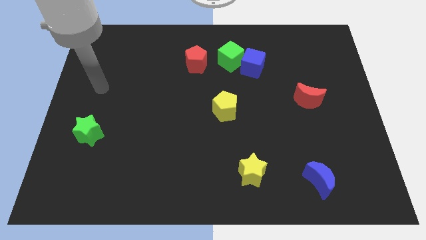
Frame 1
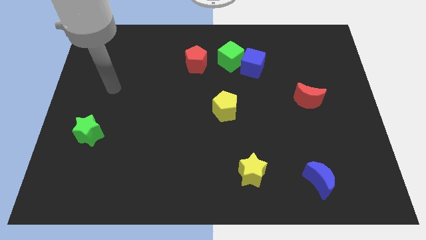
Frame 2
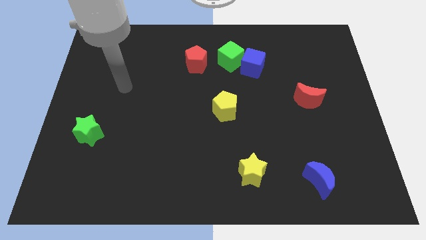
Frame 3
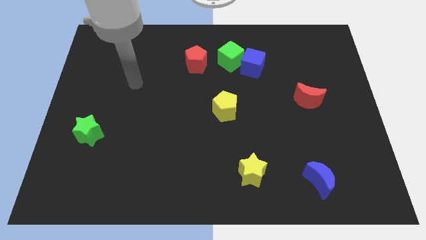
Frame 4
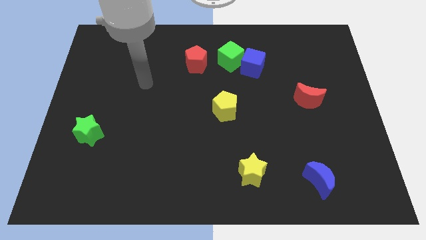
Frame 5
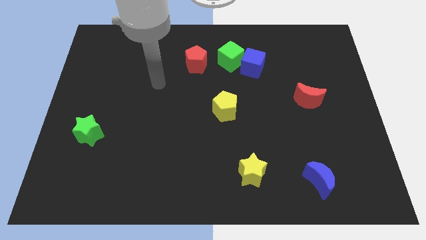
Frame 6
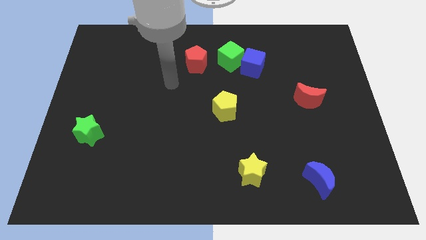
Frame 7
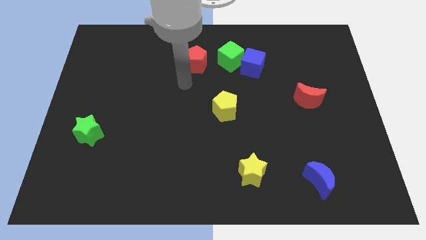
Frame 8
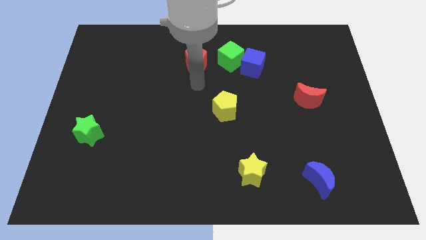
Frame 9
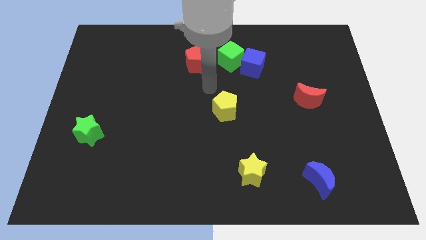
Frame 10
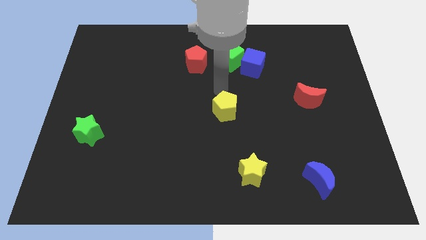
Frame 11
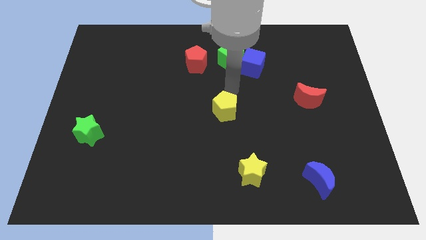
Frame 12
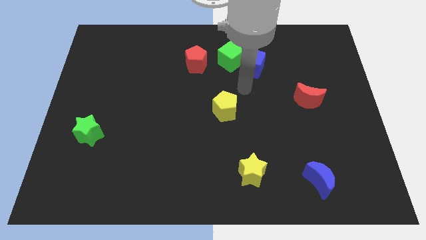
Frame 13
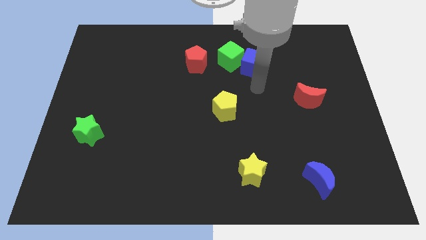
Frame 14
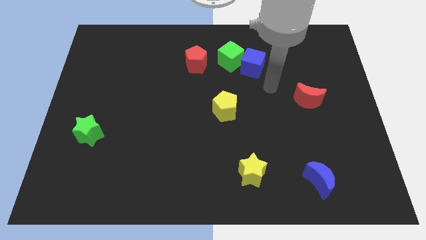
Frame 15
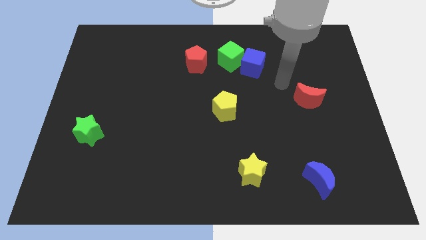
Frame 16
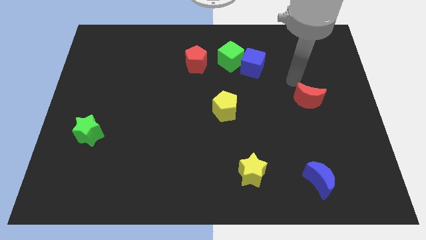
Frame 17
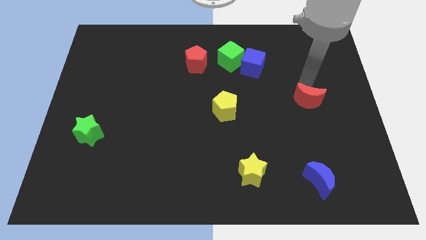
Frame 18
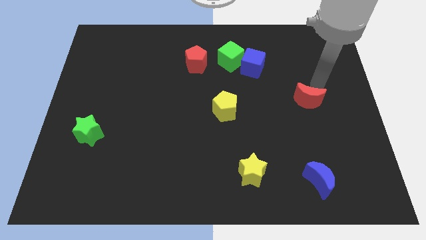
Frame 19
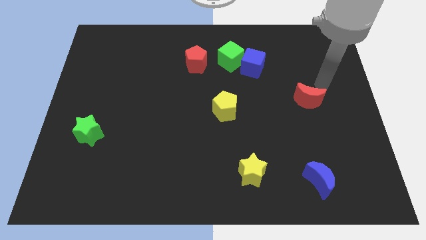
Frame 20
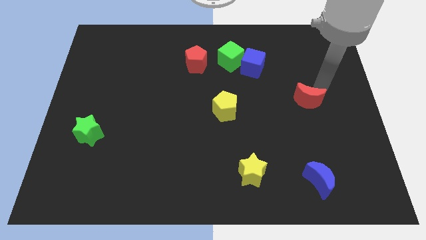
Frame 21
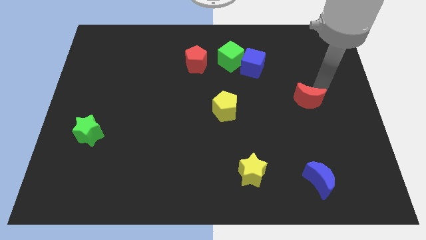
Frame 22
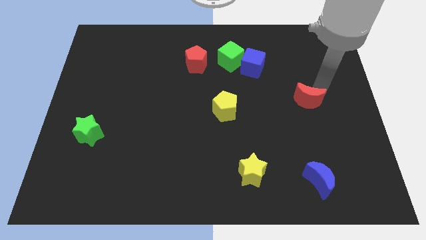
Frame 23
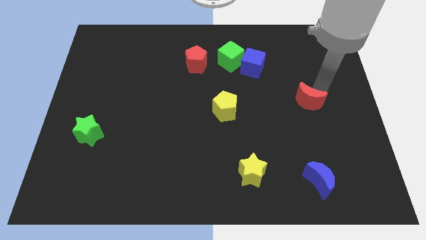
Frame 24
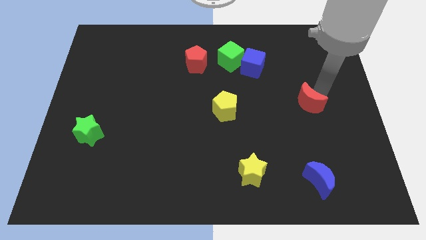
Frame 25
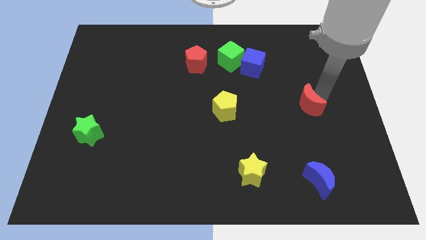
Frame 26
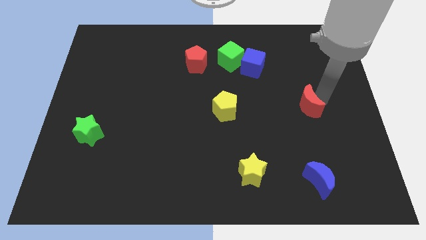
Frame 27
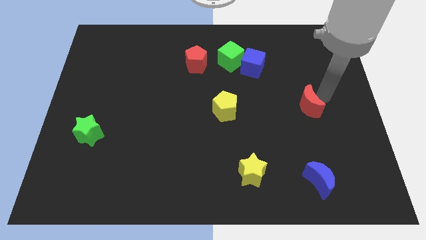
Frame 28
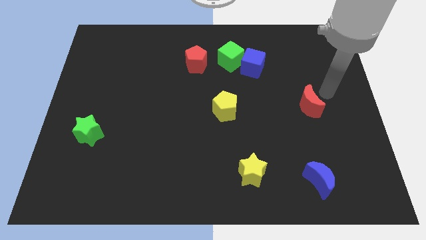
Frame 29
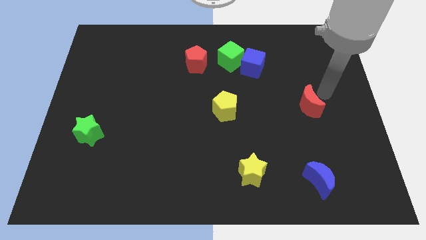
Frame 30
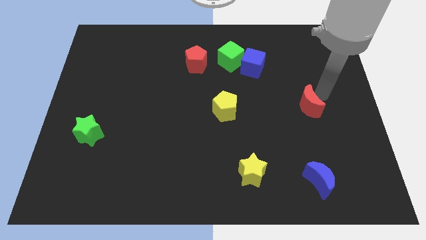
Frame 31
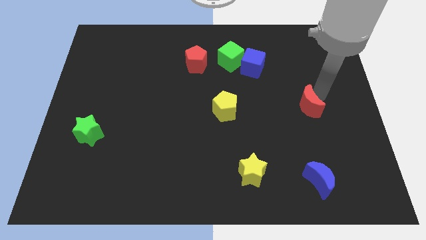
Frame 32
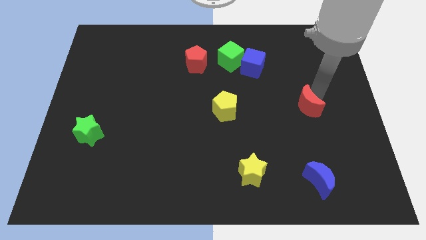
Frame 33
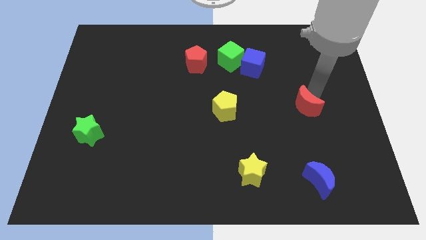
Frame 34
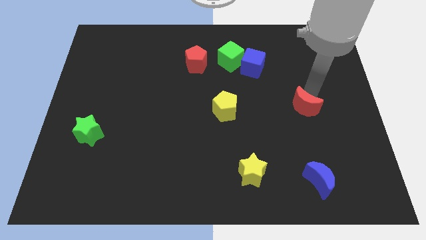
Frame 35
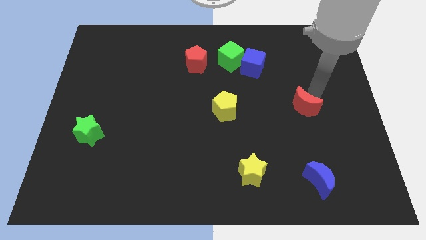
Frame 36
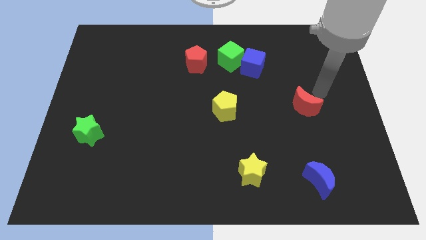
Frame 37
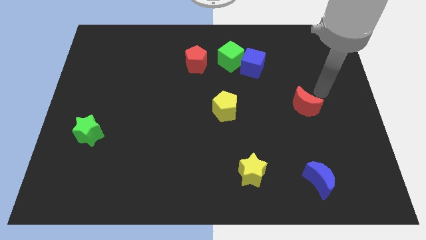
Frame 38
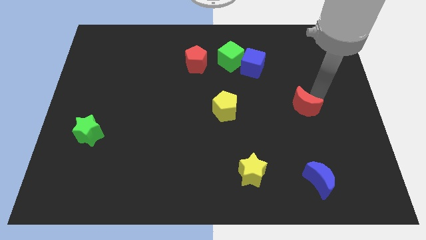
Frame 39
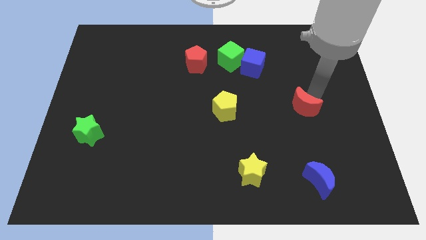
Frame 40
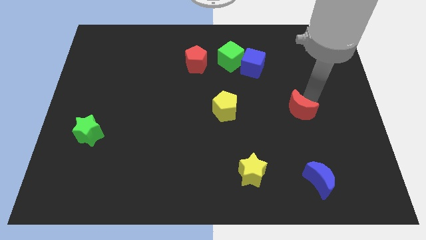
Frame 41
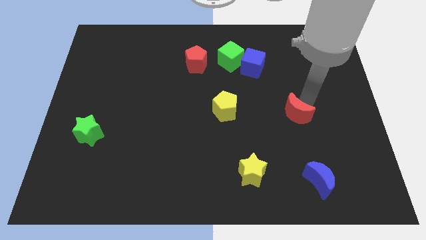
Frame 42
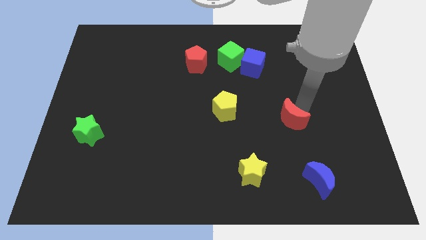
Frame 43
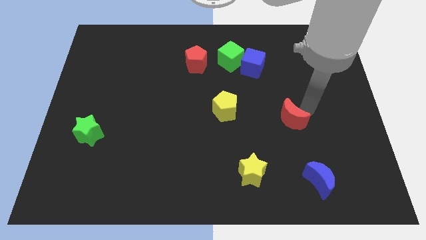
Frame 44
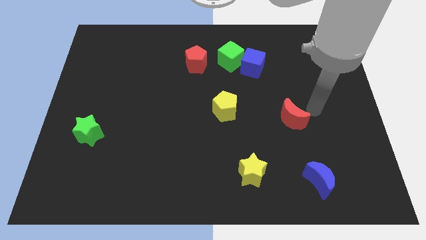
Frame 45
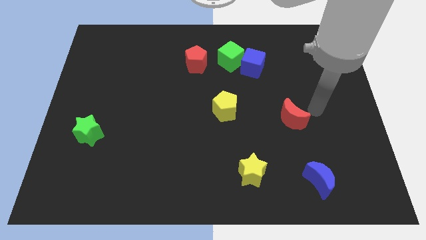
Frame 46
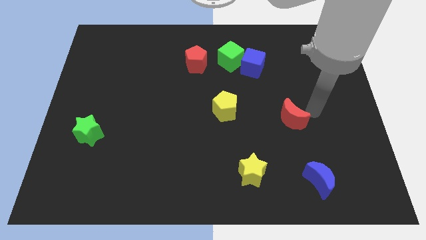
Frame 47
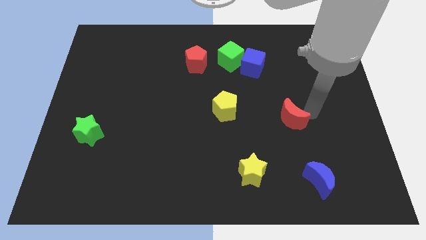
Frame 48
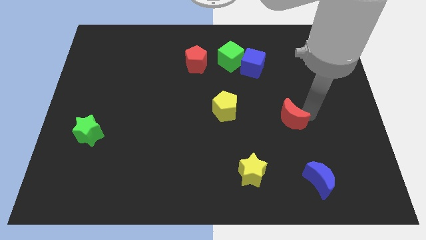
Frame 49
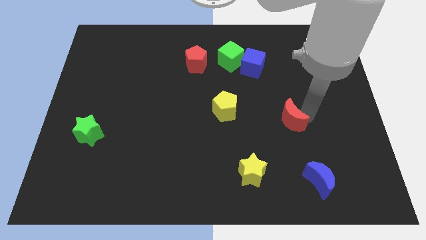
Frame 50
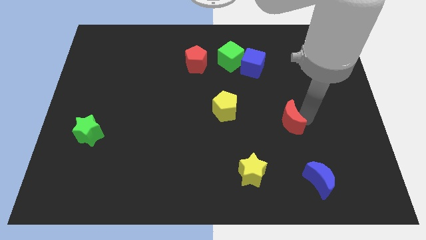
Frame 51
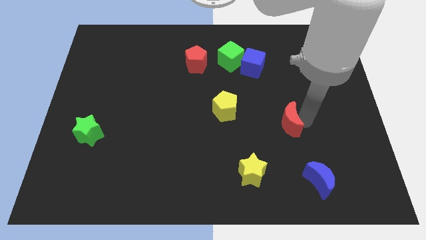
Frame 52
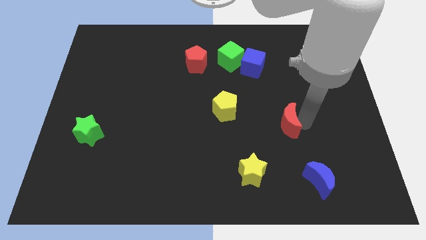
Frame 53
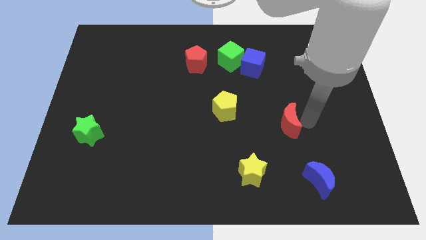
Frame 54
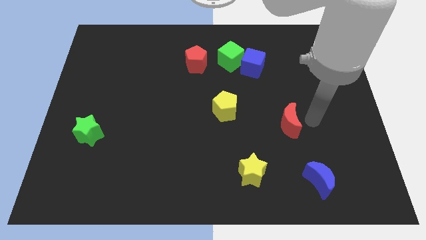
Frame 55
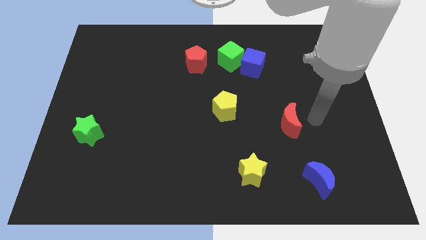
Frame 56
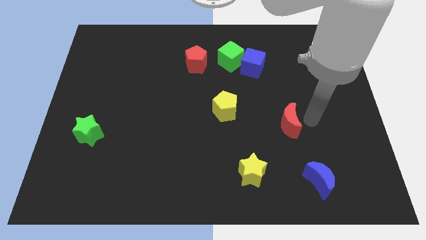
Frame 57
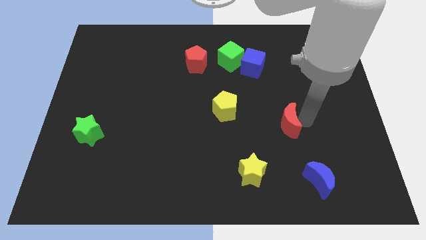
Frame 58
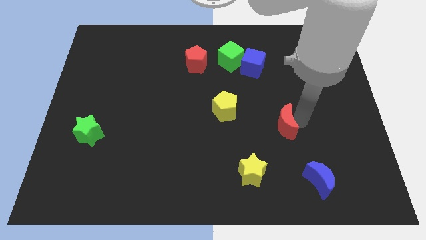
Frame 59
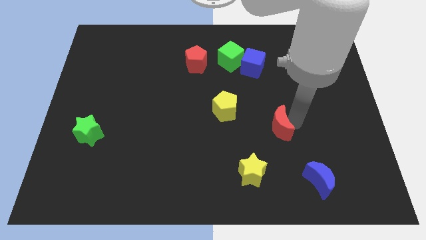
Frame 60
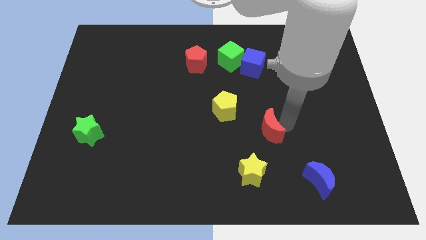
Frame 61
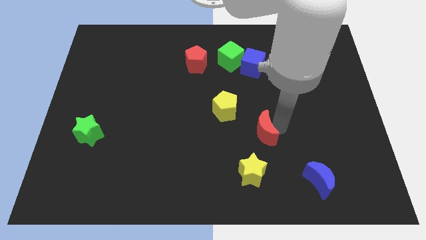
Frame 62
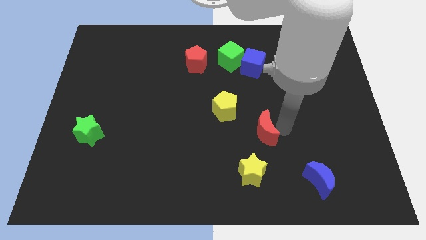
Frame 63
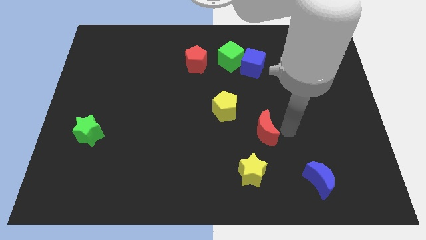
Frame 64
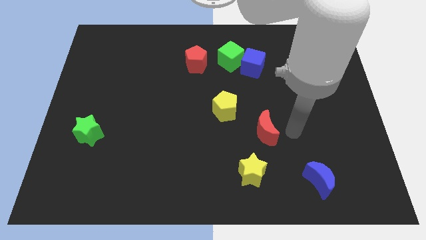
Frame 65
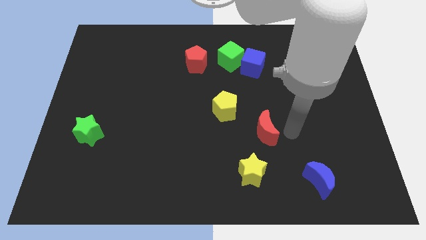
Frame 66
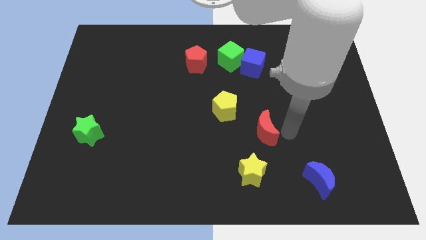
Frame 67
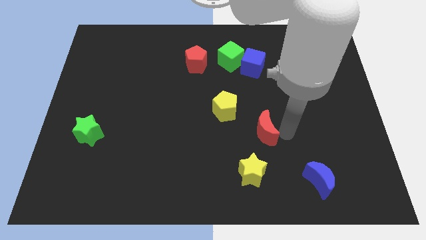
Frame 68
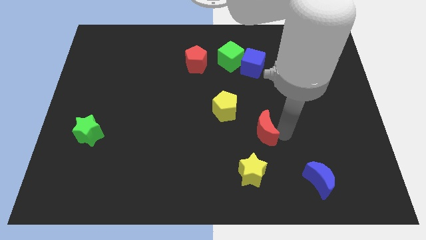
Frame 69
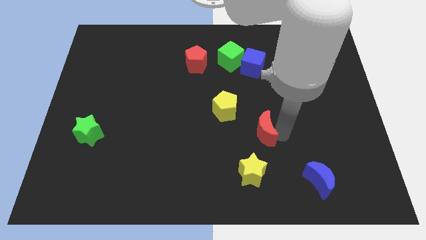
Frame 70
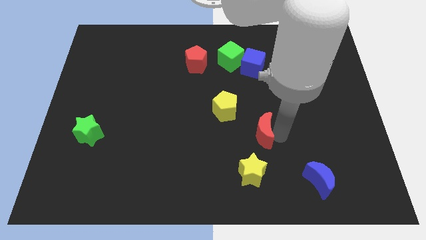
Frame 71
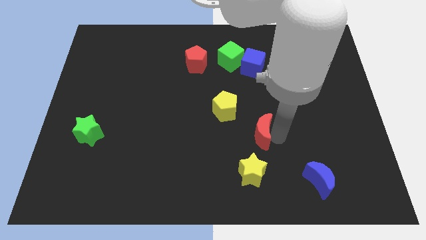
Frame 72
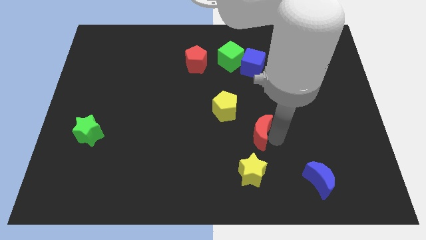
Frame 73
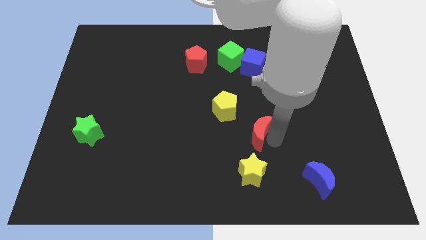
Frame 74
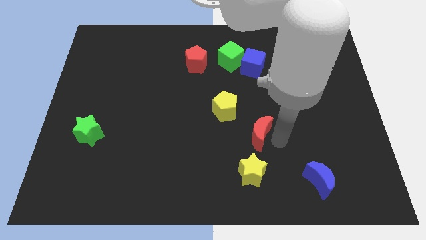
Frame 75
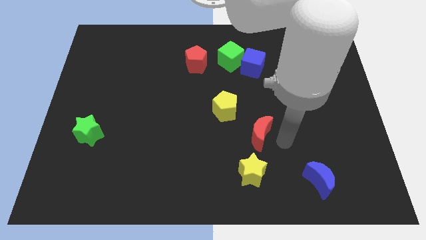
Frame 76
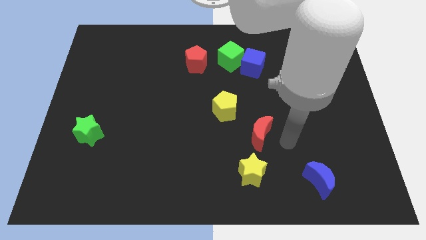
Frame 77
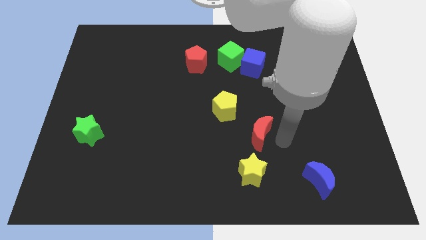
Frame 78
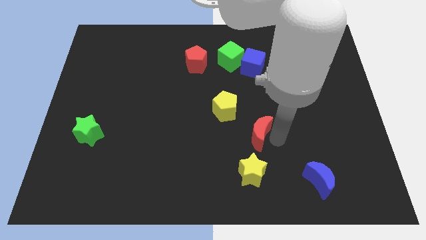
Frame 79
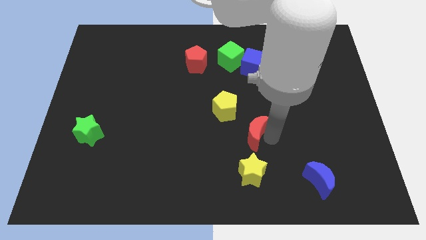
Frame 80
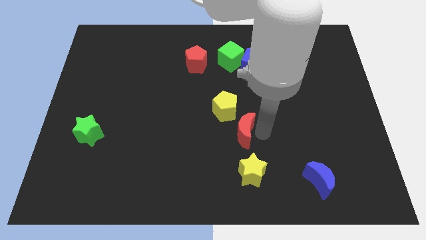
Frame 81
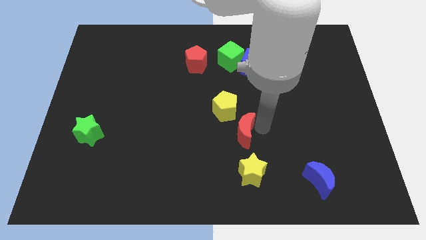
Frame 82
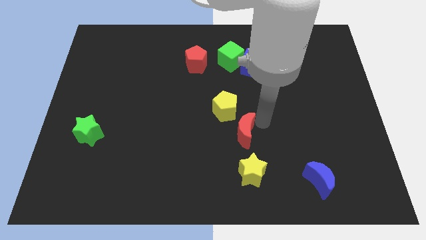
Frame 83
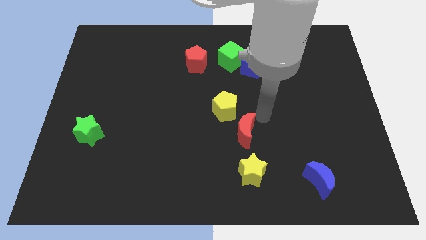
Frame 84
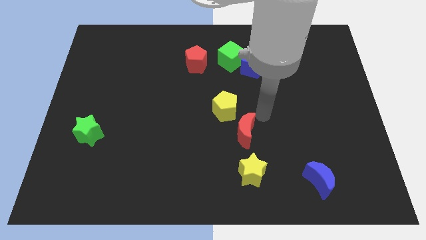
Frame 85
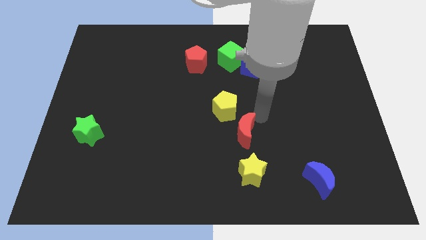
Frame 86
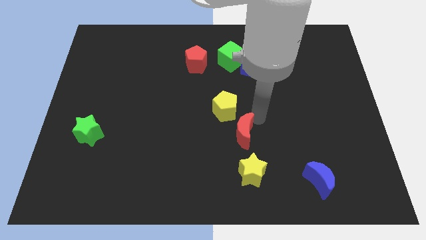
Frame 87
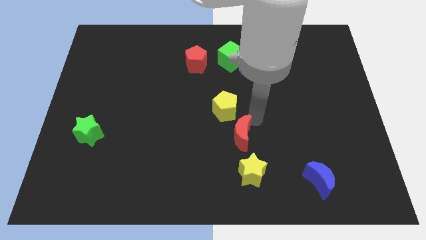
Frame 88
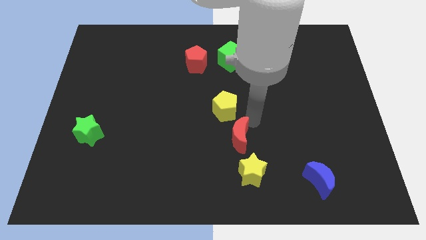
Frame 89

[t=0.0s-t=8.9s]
push the red moon diagonally up and to the left of the yellow star
